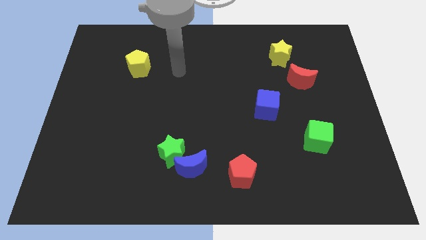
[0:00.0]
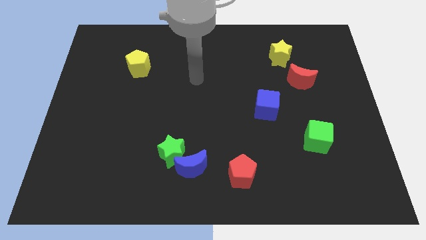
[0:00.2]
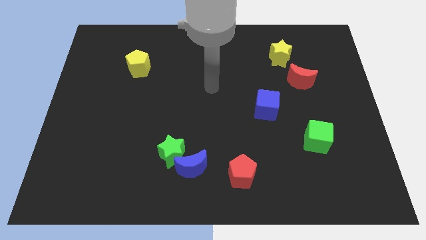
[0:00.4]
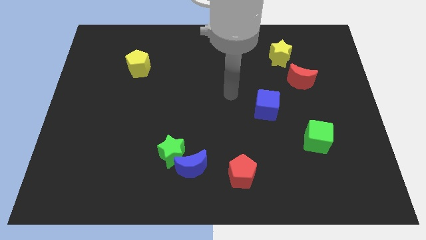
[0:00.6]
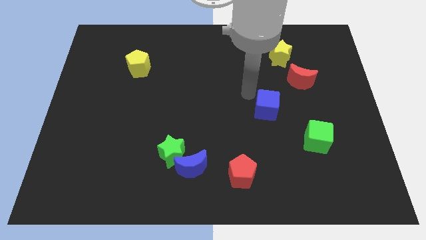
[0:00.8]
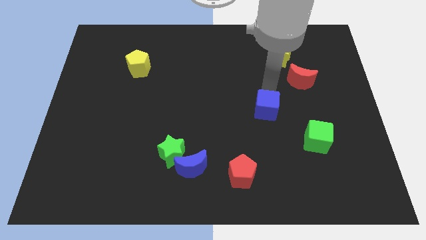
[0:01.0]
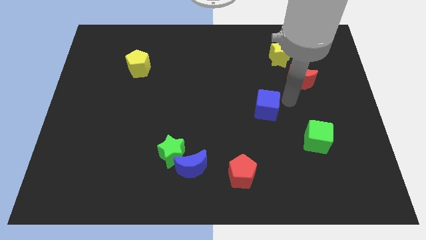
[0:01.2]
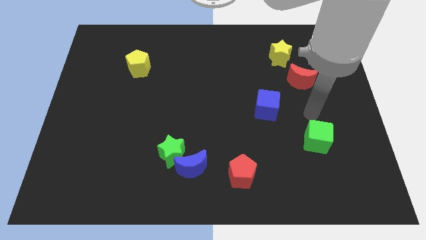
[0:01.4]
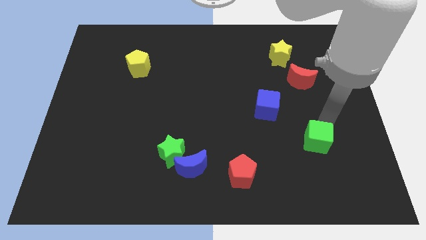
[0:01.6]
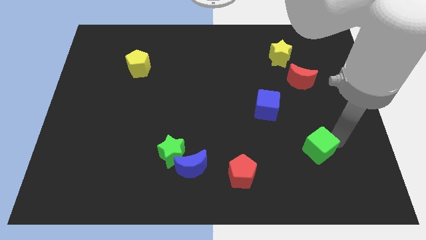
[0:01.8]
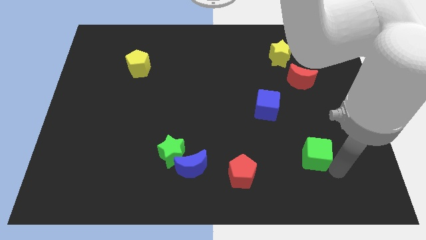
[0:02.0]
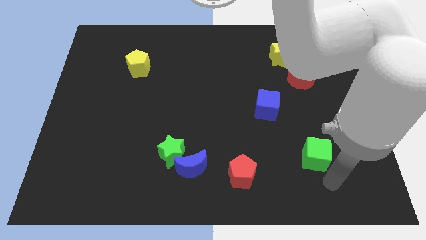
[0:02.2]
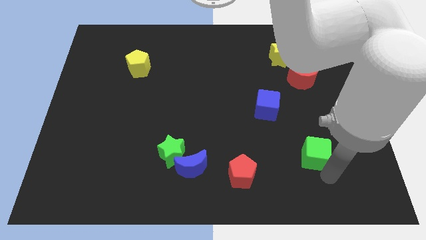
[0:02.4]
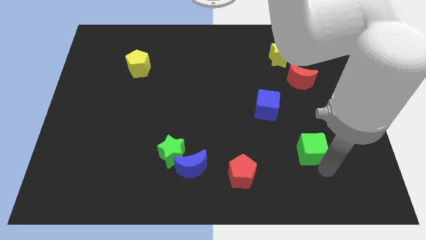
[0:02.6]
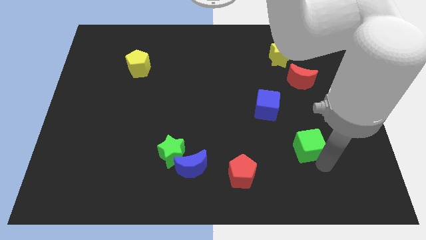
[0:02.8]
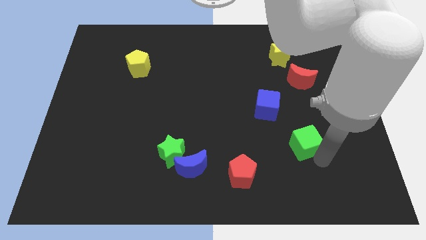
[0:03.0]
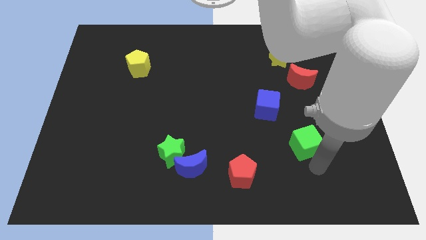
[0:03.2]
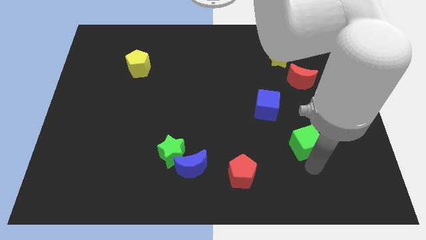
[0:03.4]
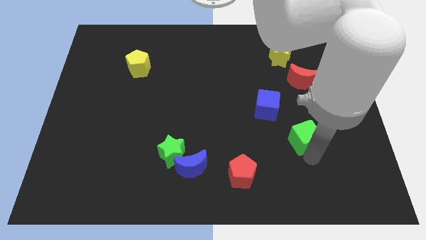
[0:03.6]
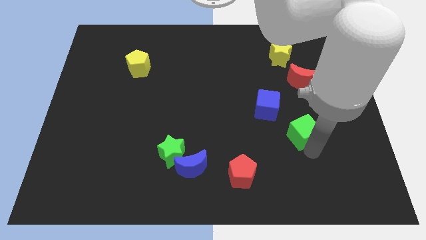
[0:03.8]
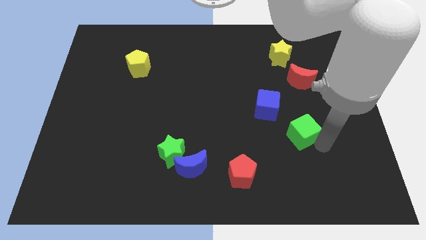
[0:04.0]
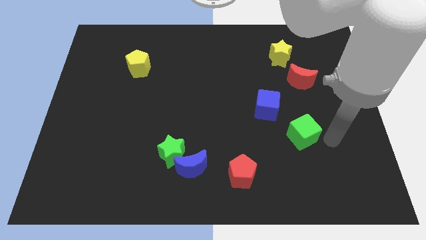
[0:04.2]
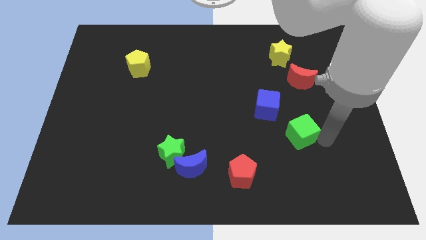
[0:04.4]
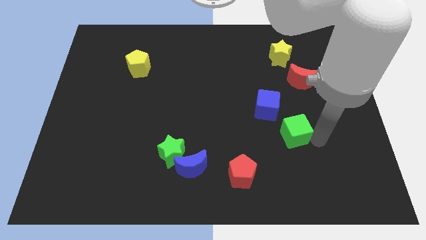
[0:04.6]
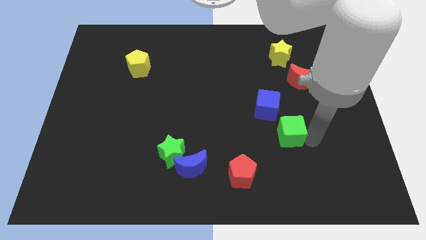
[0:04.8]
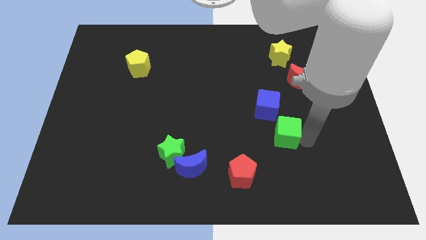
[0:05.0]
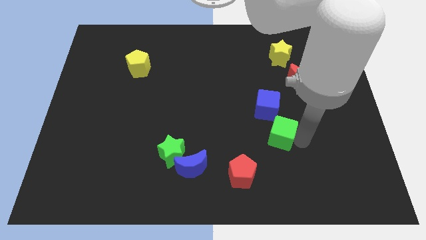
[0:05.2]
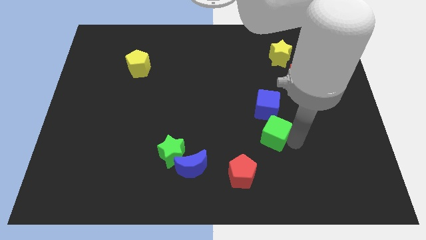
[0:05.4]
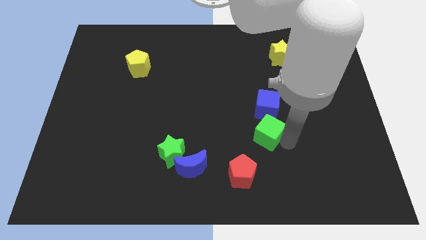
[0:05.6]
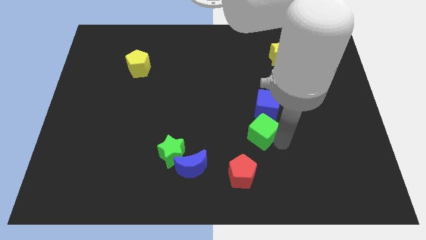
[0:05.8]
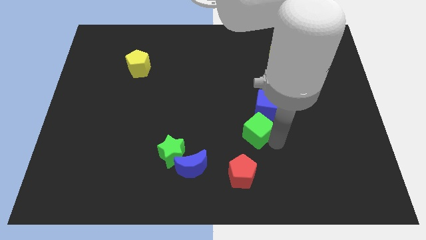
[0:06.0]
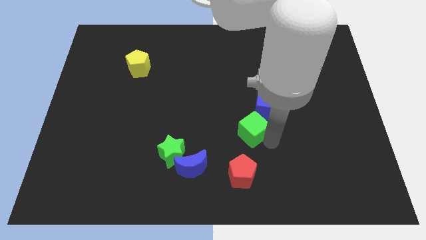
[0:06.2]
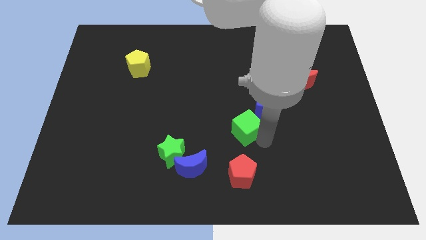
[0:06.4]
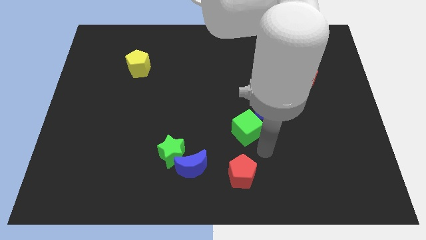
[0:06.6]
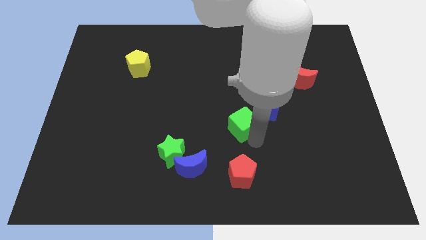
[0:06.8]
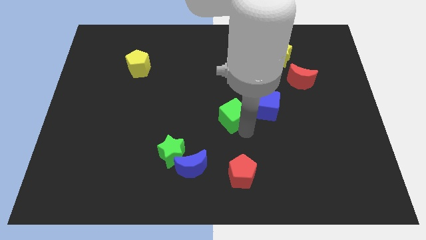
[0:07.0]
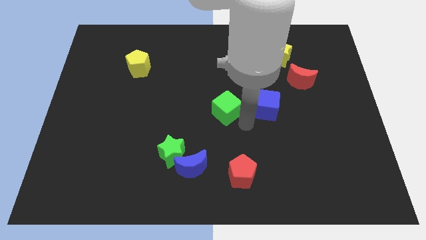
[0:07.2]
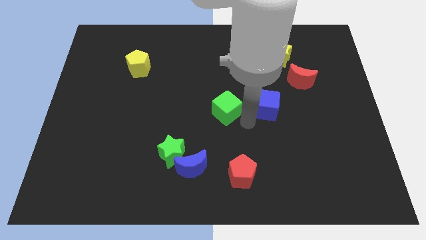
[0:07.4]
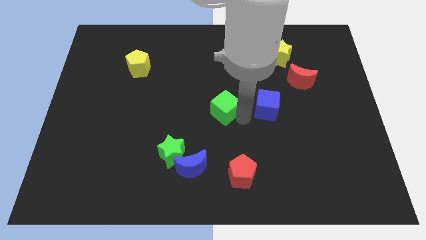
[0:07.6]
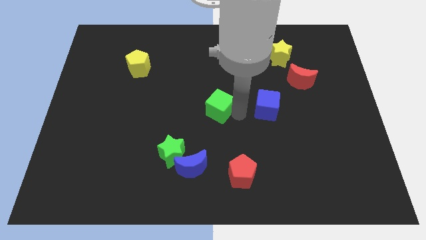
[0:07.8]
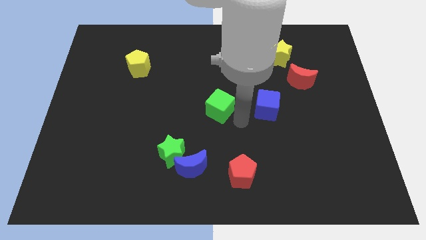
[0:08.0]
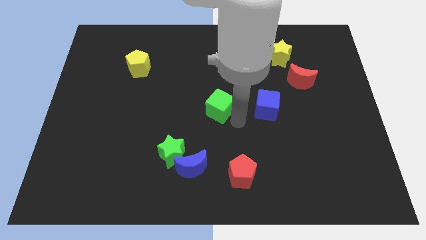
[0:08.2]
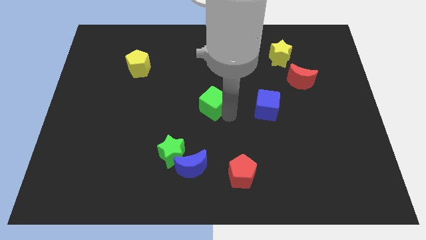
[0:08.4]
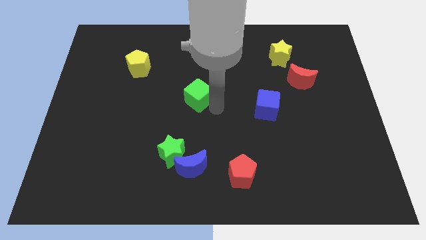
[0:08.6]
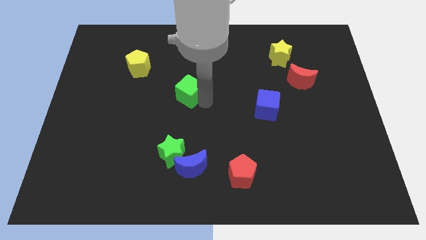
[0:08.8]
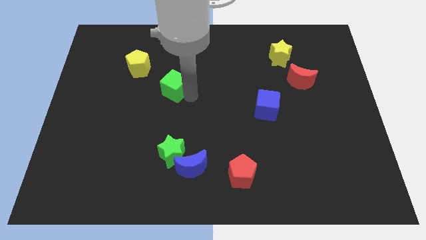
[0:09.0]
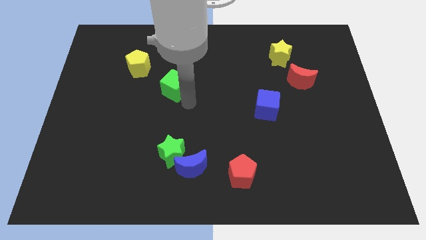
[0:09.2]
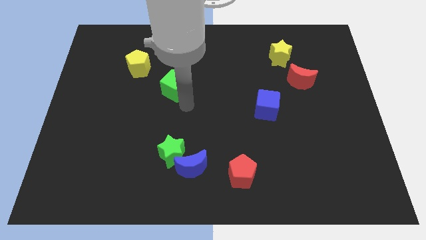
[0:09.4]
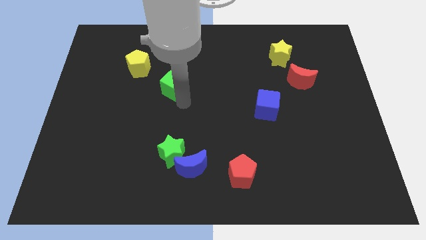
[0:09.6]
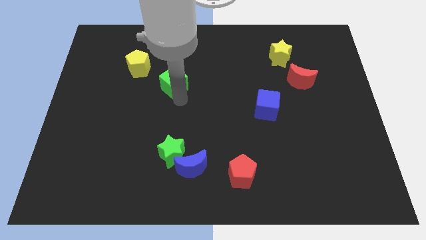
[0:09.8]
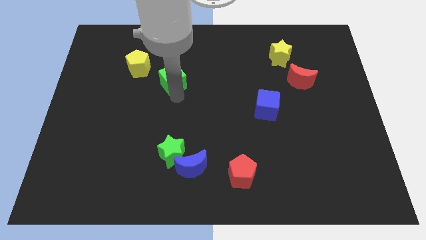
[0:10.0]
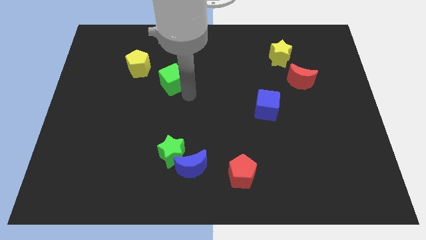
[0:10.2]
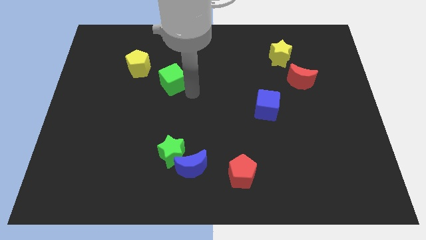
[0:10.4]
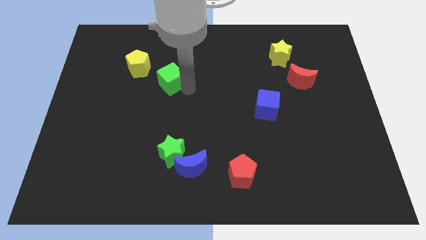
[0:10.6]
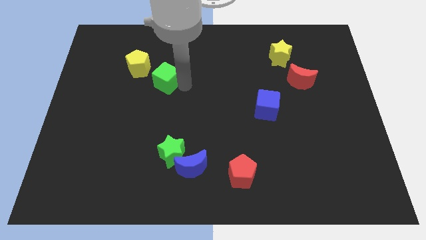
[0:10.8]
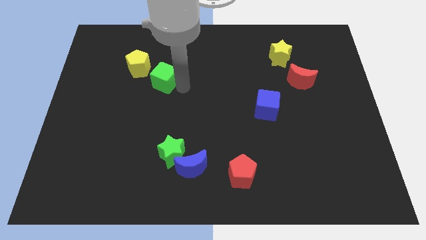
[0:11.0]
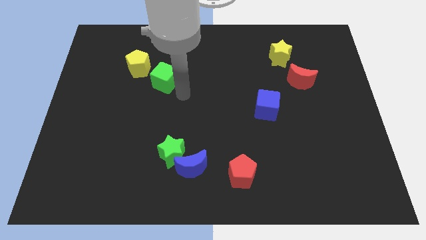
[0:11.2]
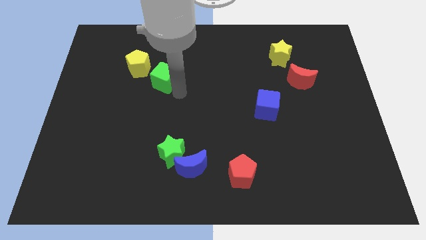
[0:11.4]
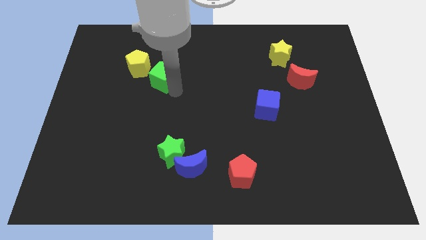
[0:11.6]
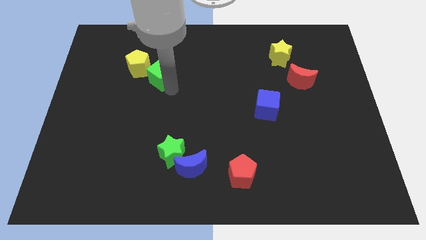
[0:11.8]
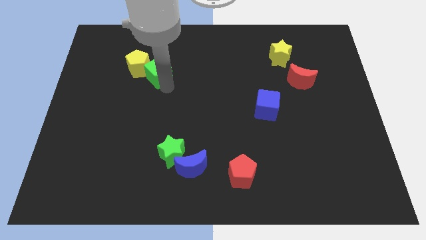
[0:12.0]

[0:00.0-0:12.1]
slide the green cube to the yellow pentagon
